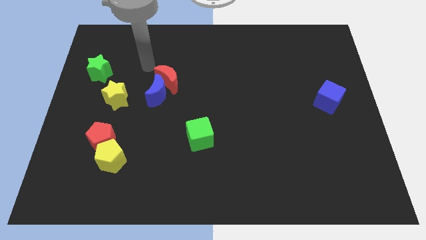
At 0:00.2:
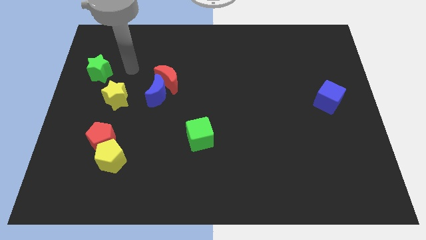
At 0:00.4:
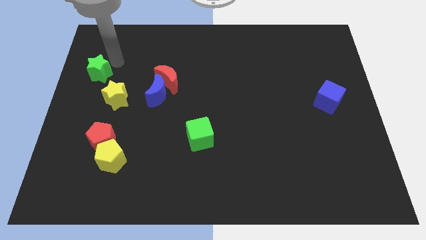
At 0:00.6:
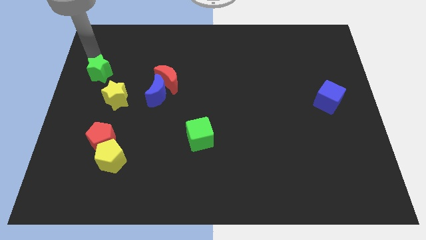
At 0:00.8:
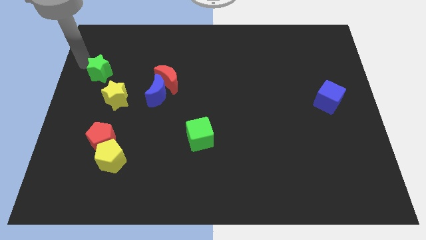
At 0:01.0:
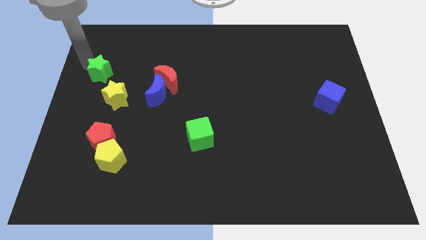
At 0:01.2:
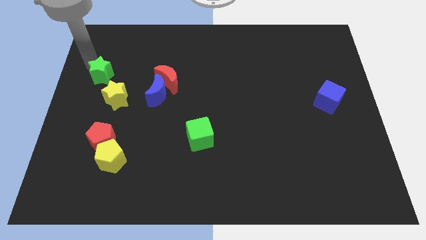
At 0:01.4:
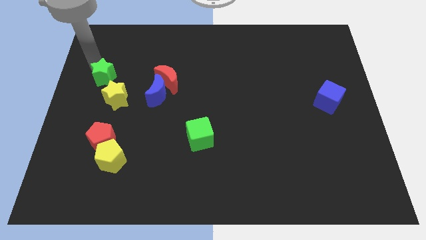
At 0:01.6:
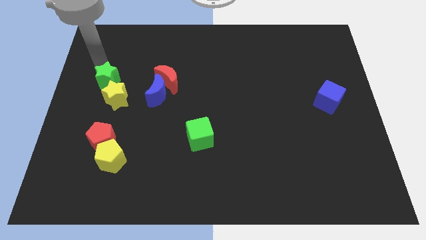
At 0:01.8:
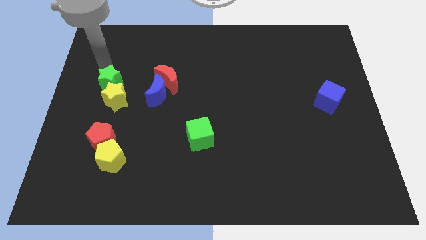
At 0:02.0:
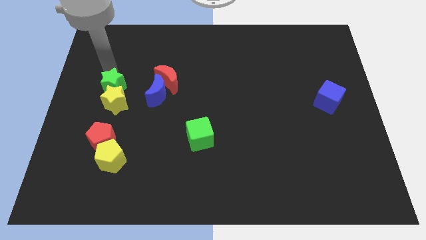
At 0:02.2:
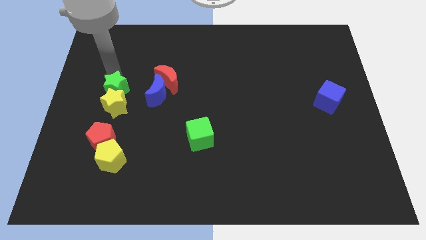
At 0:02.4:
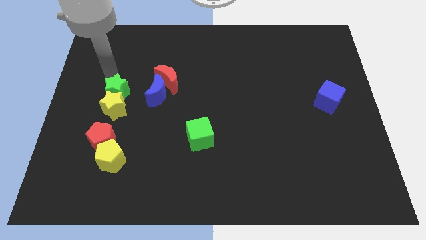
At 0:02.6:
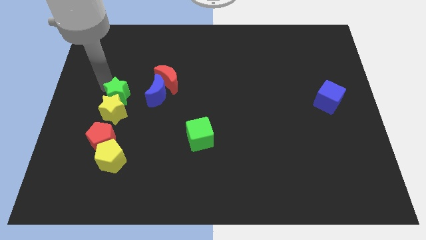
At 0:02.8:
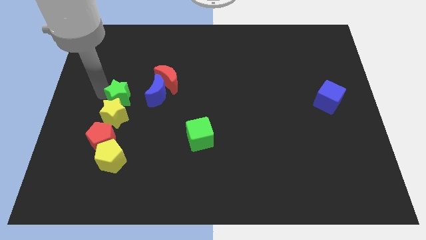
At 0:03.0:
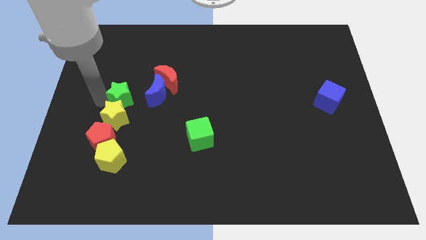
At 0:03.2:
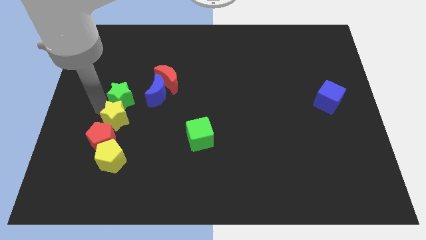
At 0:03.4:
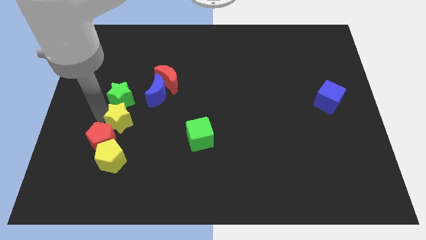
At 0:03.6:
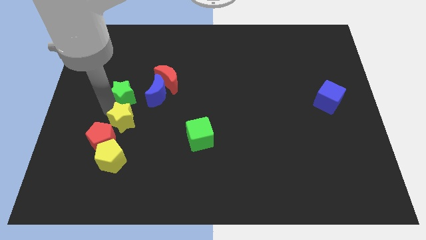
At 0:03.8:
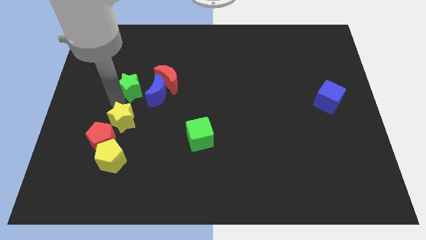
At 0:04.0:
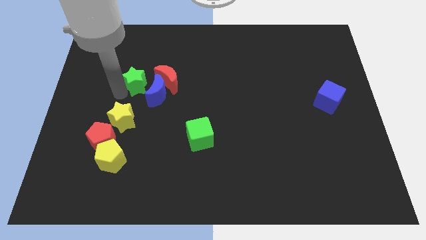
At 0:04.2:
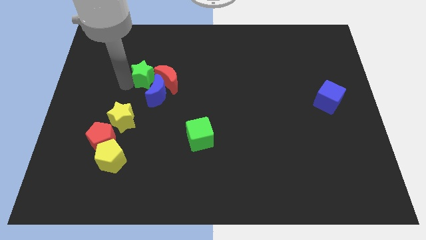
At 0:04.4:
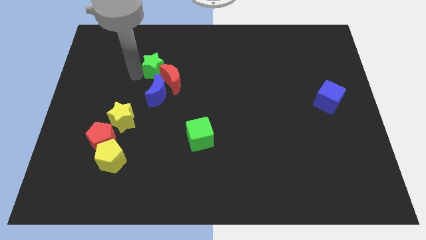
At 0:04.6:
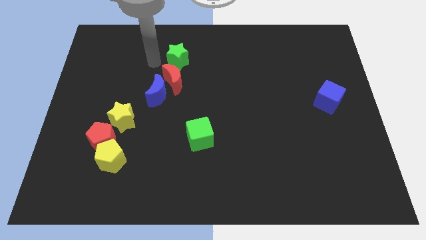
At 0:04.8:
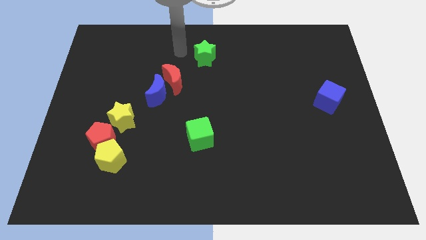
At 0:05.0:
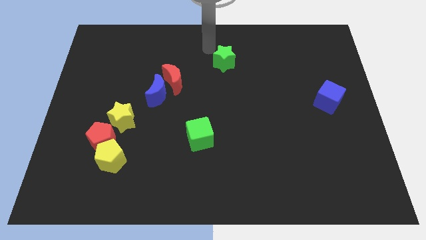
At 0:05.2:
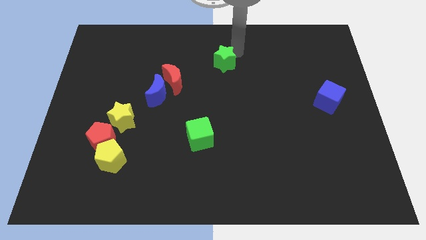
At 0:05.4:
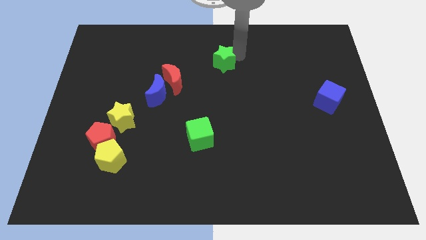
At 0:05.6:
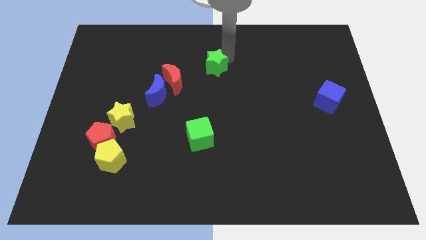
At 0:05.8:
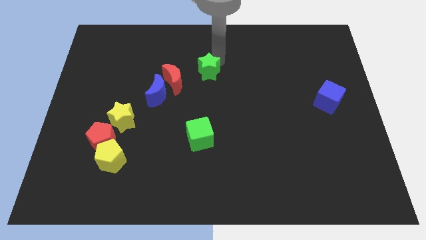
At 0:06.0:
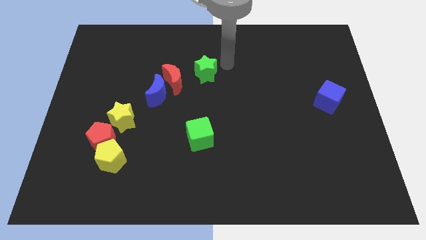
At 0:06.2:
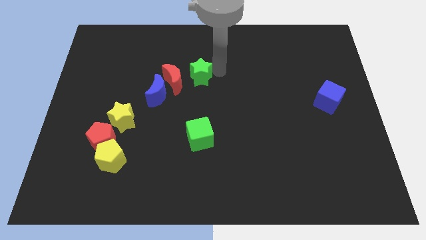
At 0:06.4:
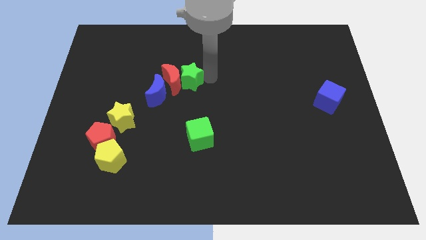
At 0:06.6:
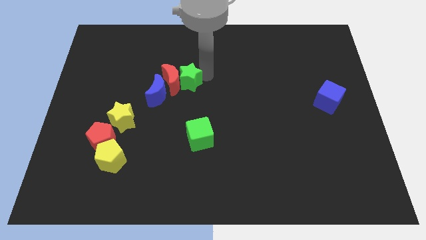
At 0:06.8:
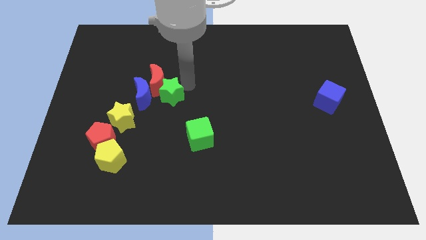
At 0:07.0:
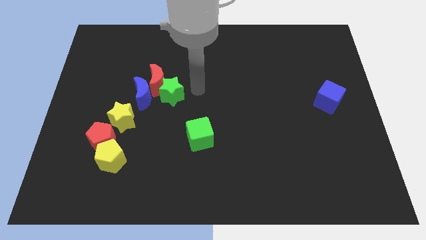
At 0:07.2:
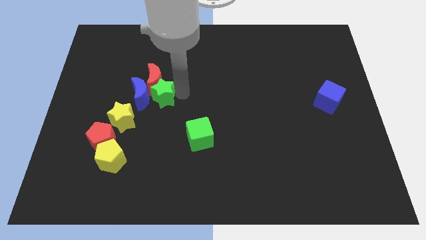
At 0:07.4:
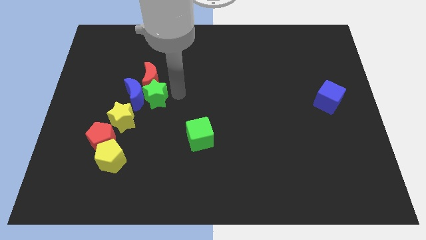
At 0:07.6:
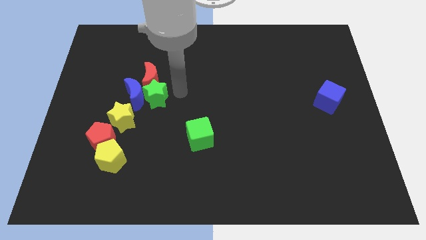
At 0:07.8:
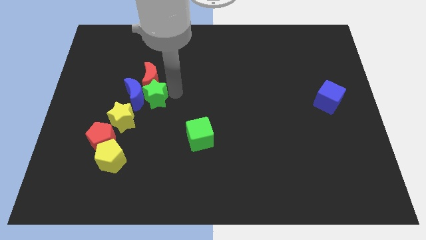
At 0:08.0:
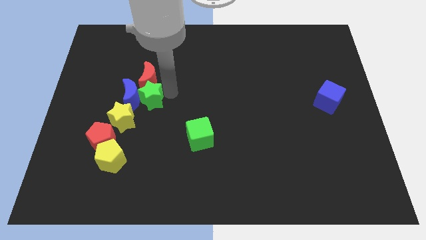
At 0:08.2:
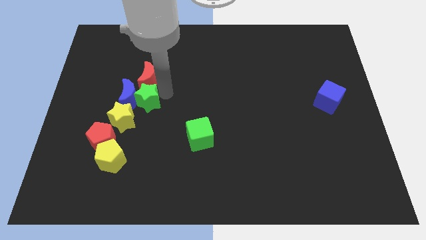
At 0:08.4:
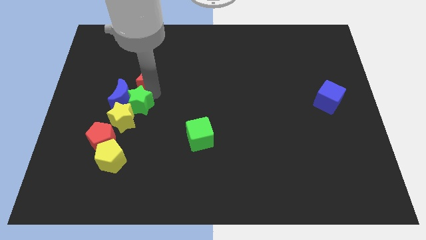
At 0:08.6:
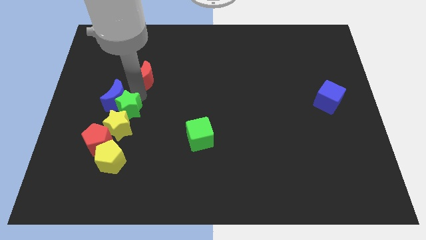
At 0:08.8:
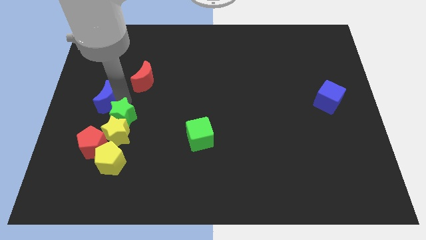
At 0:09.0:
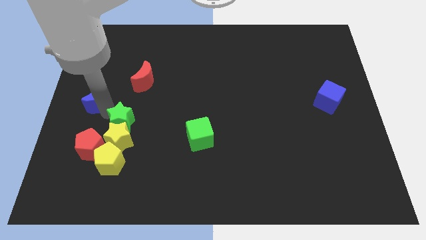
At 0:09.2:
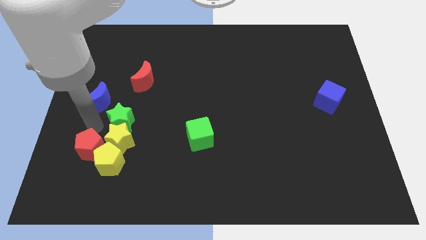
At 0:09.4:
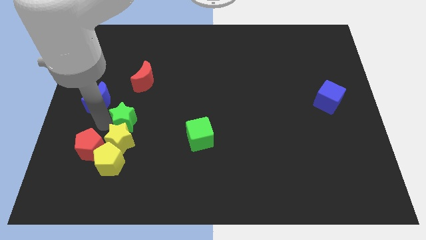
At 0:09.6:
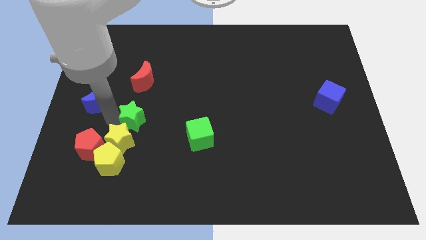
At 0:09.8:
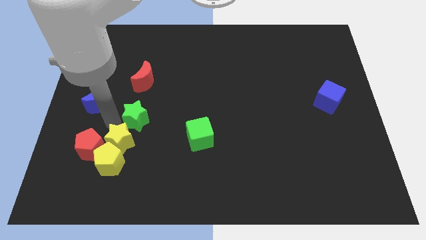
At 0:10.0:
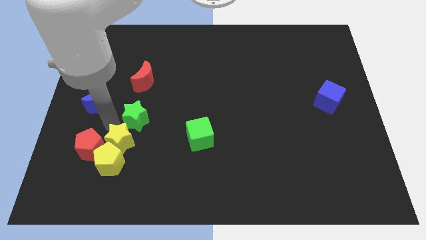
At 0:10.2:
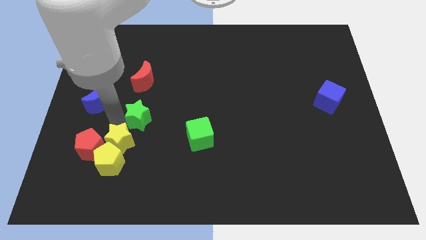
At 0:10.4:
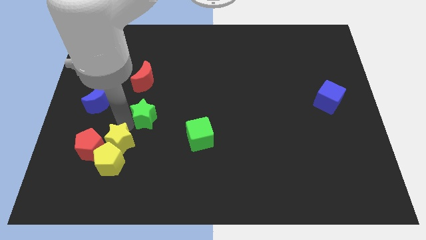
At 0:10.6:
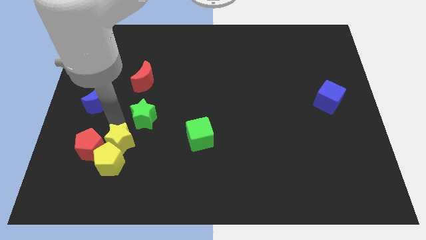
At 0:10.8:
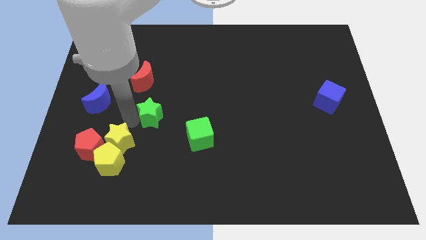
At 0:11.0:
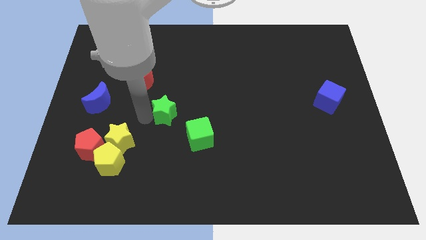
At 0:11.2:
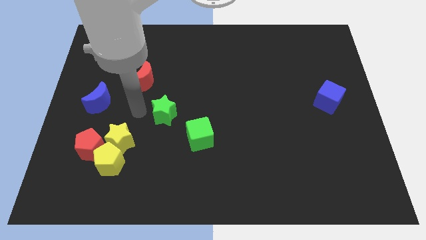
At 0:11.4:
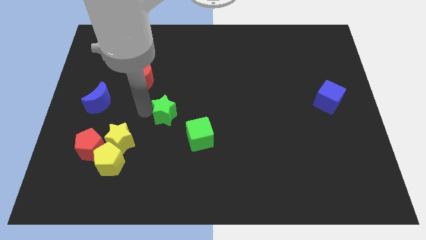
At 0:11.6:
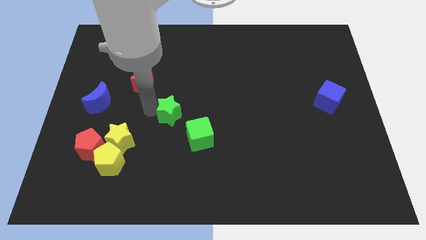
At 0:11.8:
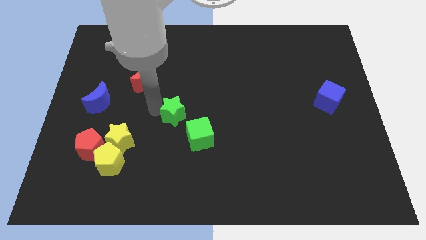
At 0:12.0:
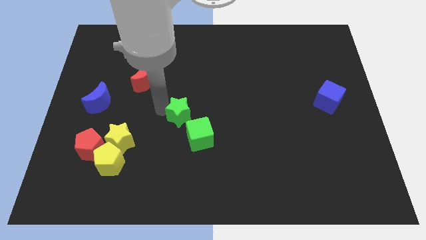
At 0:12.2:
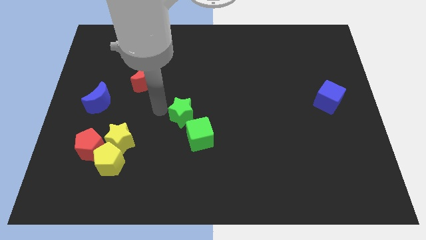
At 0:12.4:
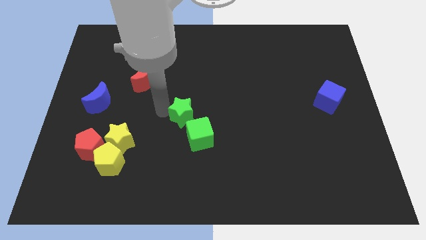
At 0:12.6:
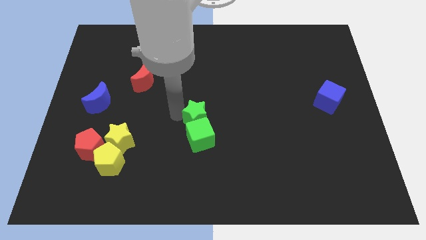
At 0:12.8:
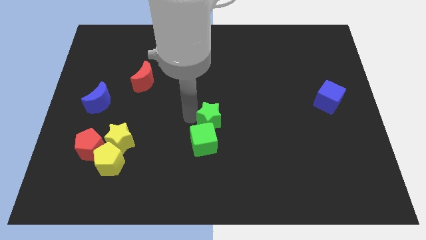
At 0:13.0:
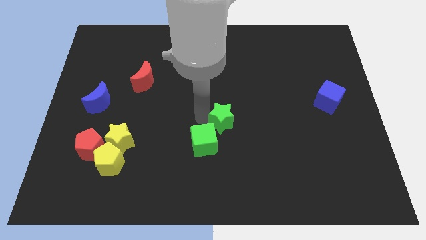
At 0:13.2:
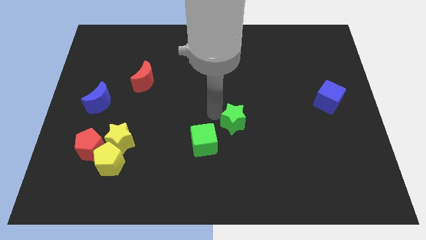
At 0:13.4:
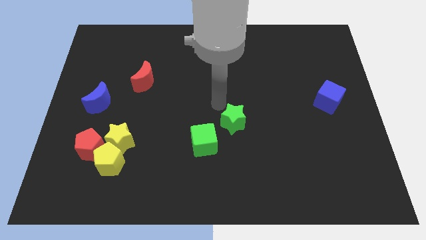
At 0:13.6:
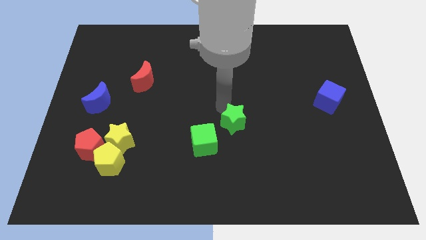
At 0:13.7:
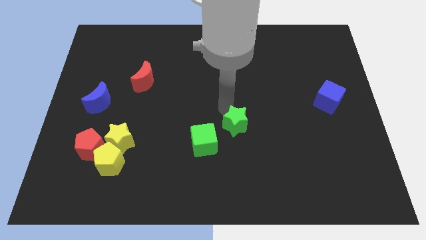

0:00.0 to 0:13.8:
put the green star right of the green cube
